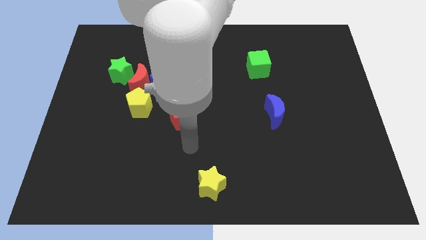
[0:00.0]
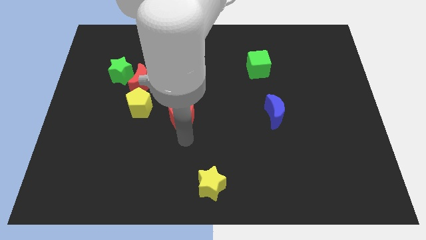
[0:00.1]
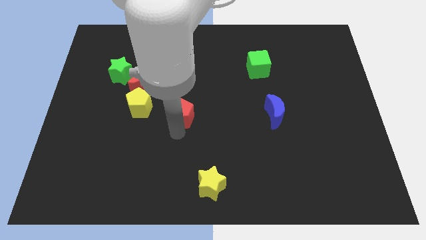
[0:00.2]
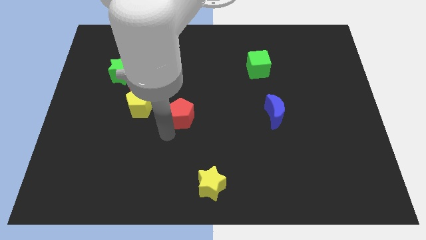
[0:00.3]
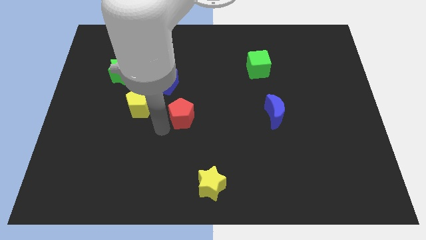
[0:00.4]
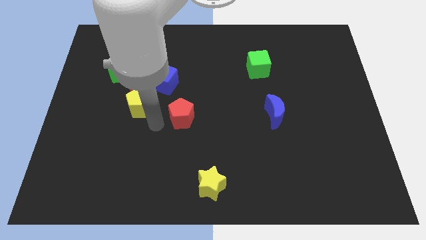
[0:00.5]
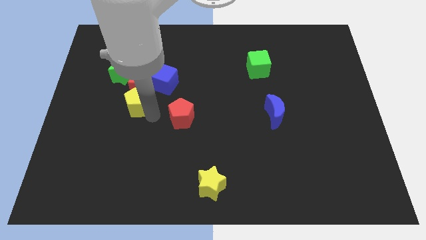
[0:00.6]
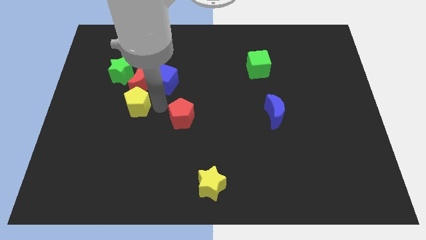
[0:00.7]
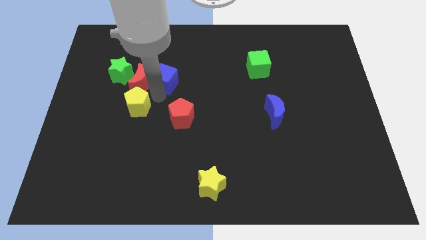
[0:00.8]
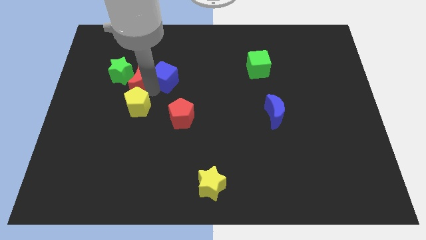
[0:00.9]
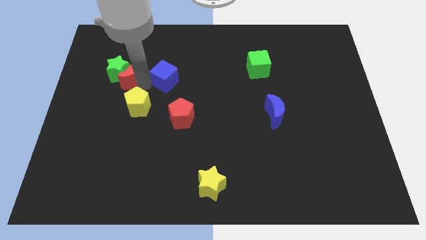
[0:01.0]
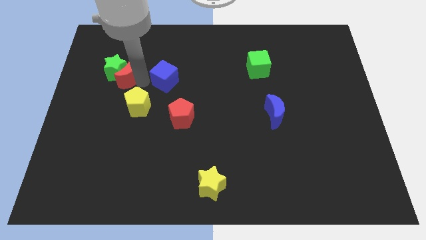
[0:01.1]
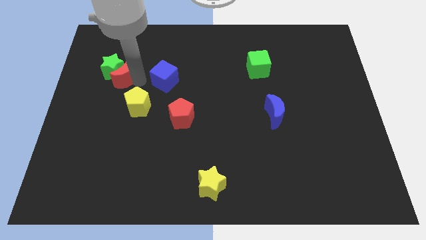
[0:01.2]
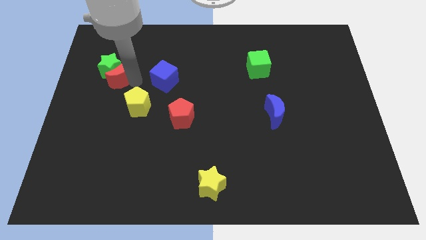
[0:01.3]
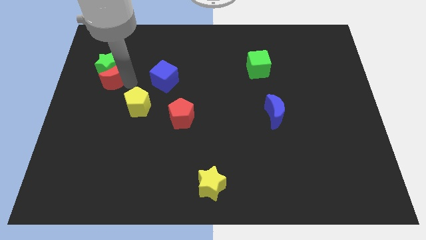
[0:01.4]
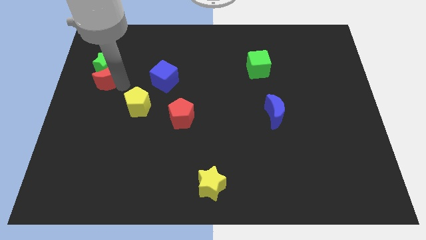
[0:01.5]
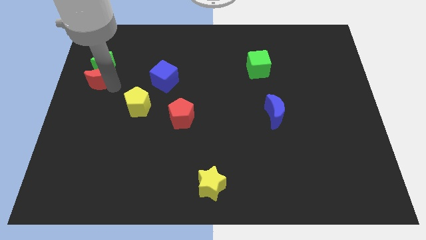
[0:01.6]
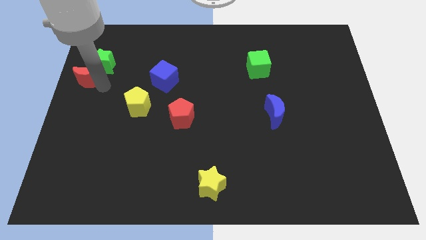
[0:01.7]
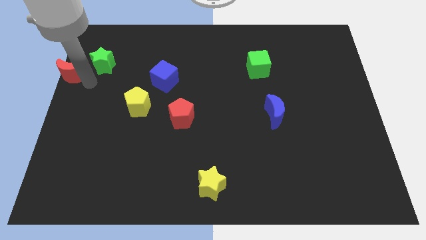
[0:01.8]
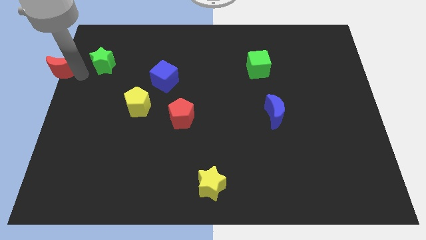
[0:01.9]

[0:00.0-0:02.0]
move the green star away from the red moon

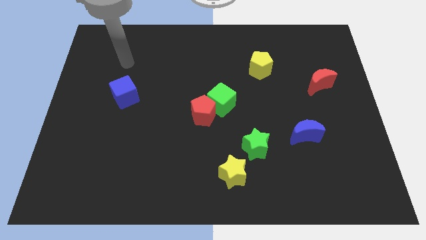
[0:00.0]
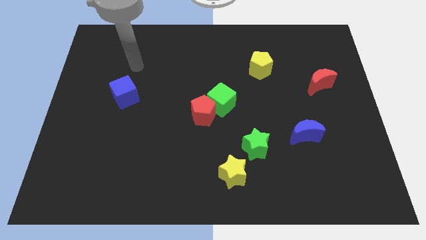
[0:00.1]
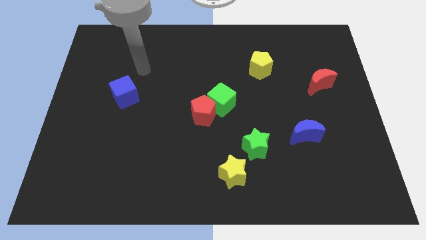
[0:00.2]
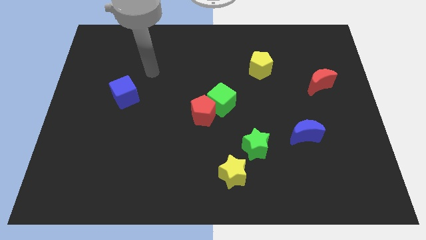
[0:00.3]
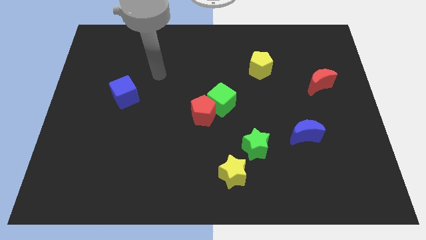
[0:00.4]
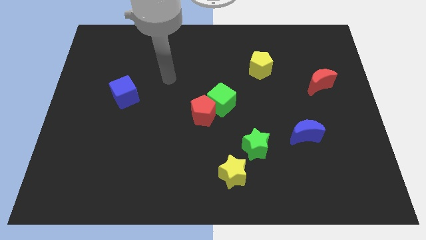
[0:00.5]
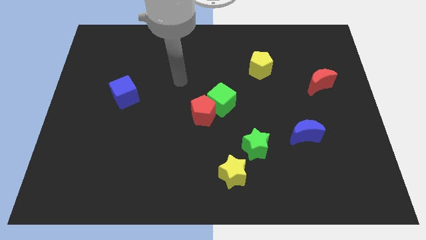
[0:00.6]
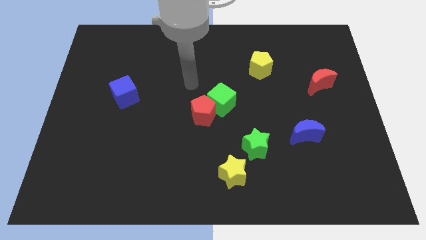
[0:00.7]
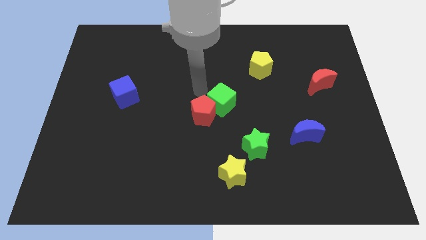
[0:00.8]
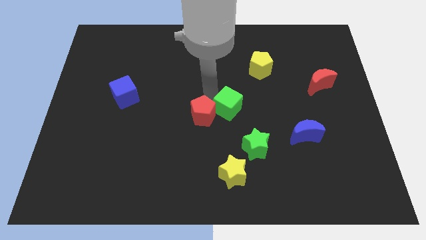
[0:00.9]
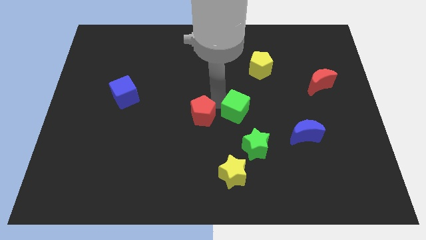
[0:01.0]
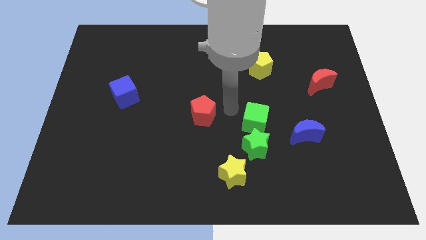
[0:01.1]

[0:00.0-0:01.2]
move the red pentagon away from the green cube

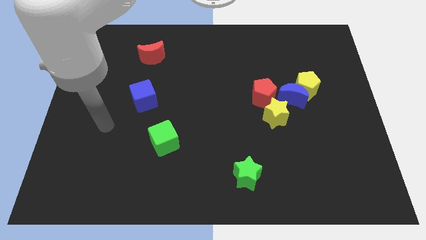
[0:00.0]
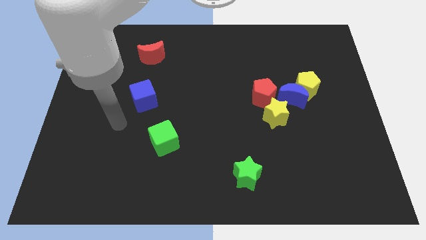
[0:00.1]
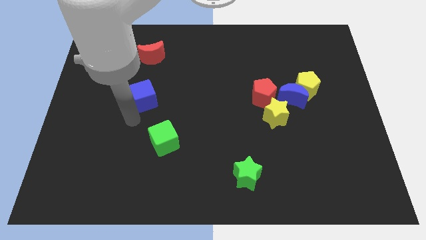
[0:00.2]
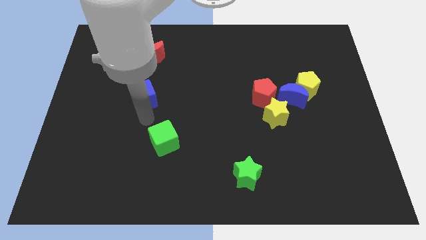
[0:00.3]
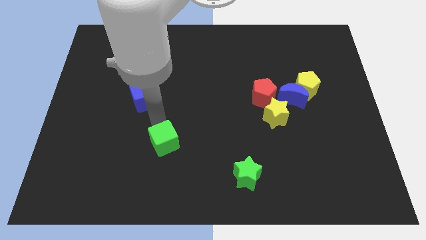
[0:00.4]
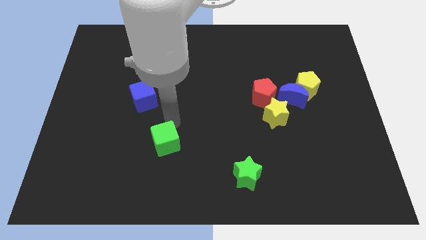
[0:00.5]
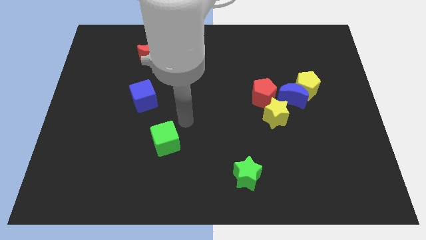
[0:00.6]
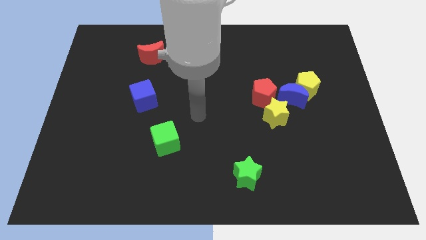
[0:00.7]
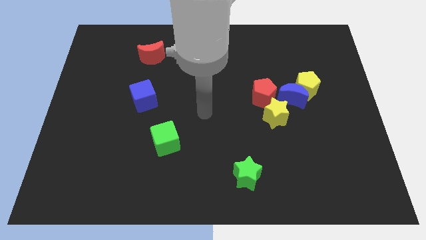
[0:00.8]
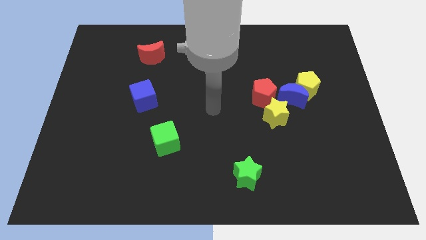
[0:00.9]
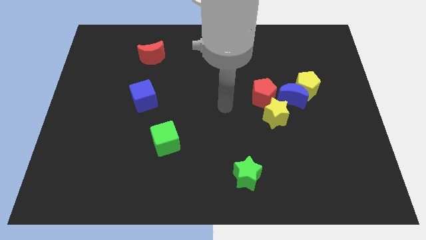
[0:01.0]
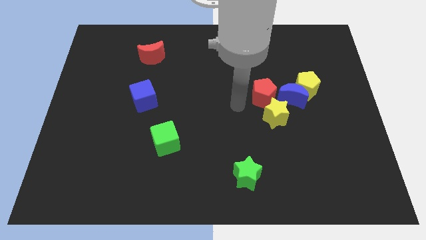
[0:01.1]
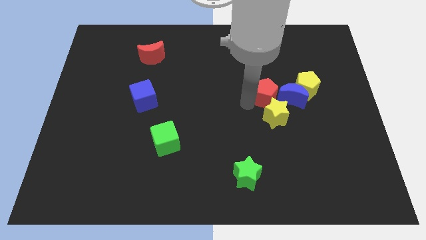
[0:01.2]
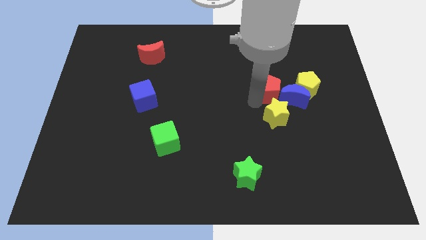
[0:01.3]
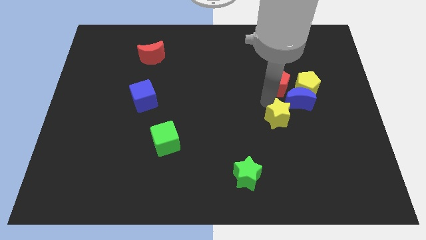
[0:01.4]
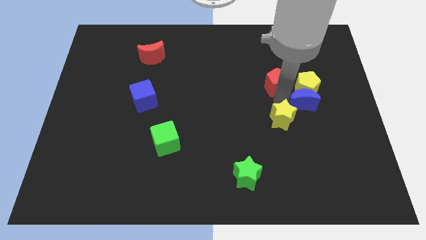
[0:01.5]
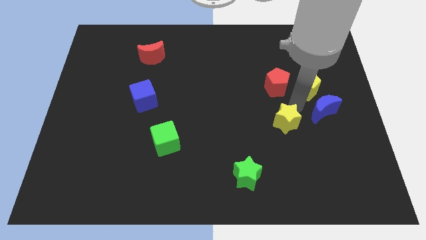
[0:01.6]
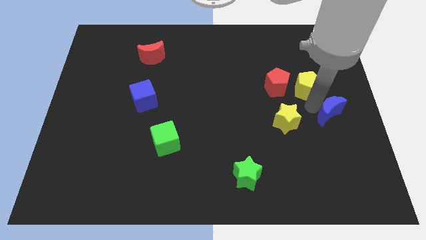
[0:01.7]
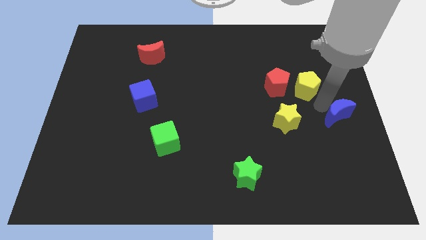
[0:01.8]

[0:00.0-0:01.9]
move the yellow pentagon away from the blue moon

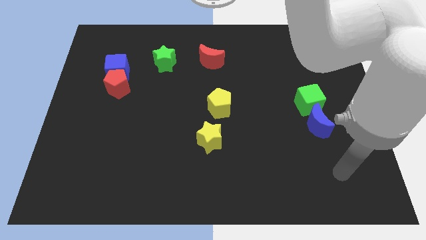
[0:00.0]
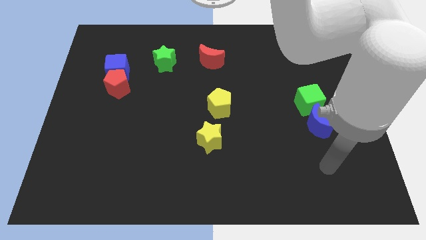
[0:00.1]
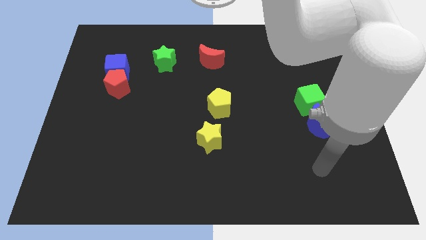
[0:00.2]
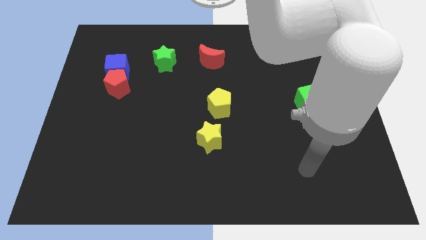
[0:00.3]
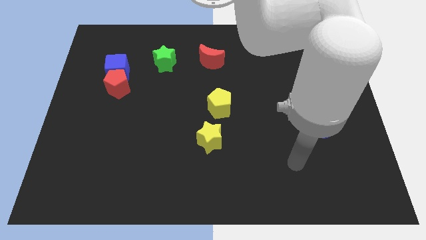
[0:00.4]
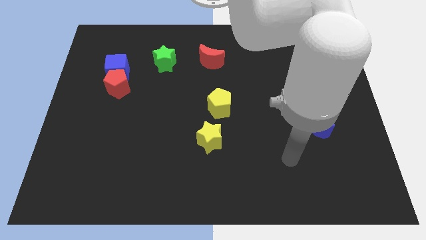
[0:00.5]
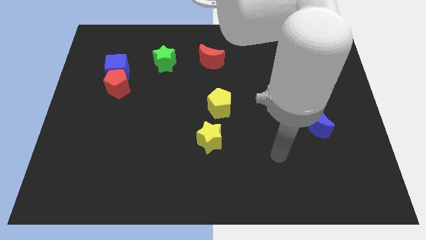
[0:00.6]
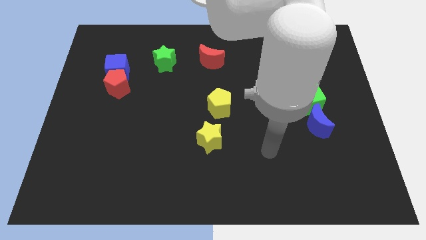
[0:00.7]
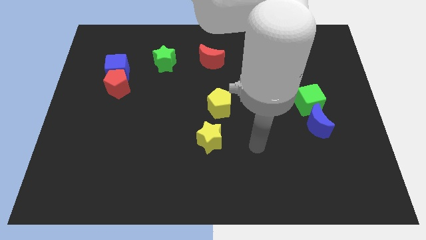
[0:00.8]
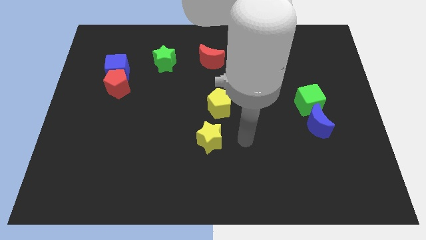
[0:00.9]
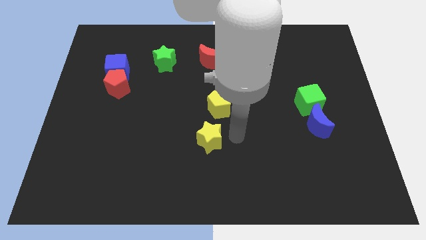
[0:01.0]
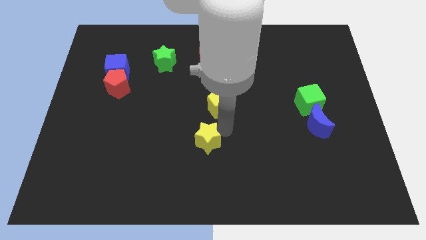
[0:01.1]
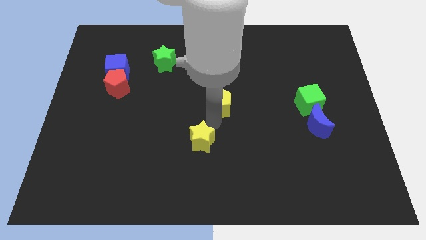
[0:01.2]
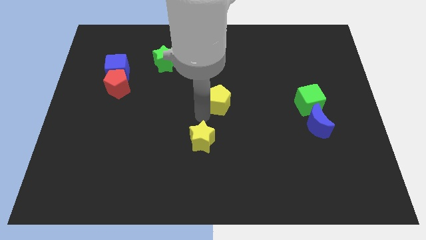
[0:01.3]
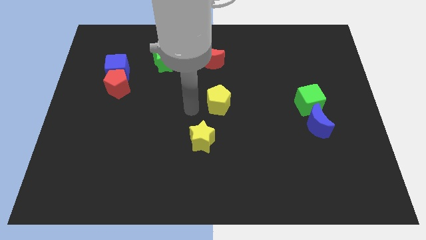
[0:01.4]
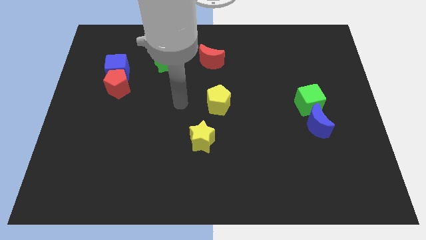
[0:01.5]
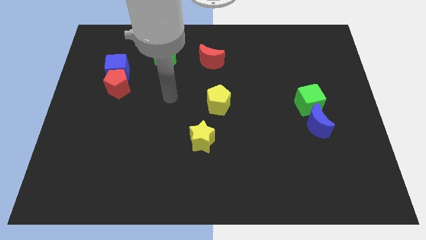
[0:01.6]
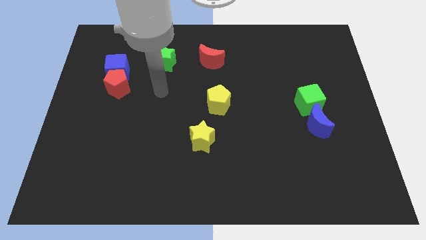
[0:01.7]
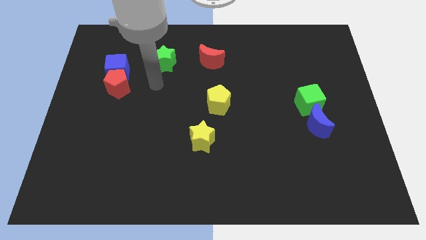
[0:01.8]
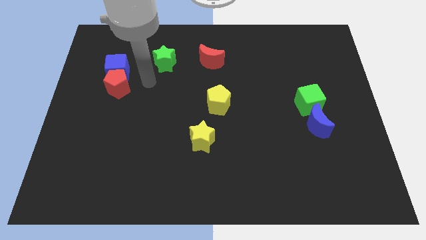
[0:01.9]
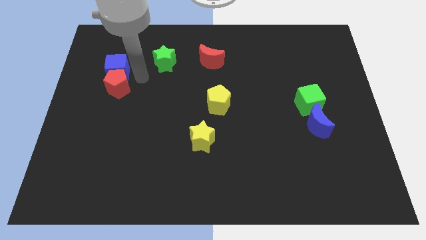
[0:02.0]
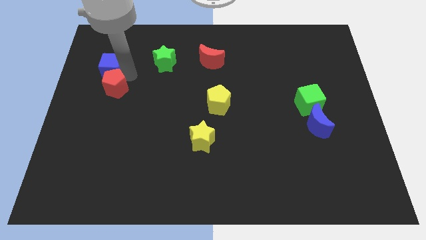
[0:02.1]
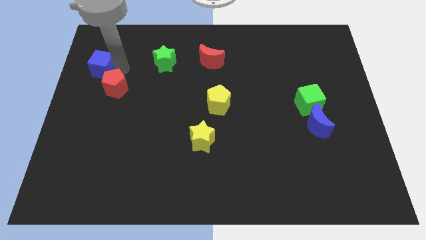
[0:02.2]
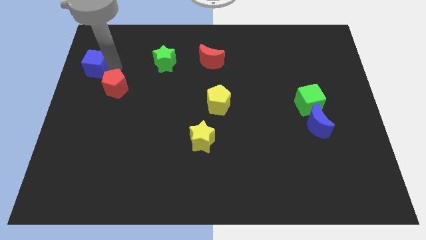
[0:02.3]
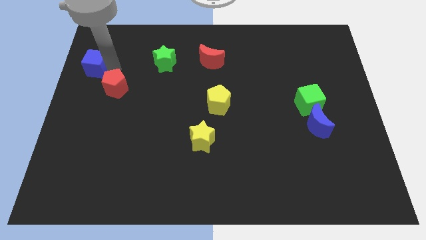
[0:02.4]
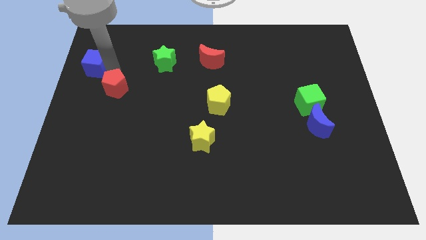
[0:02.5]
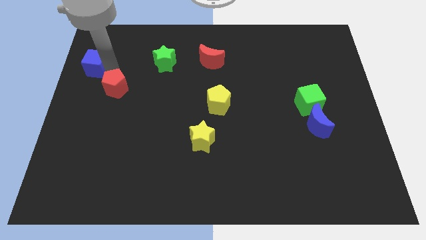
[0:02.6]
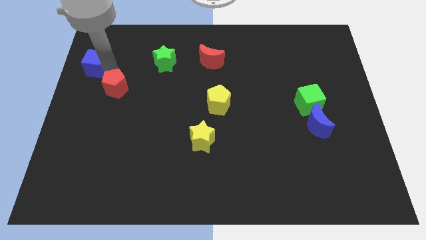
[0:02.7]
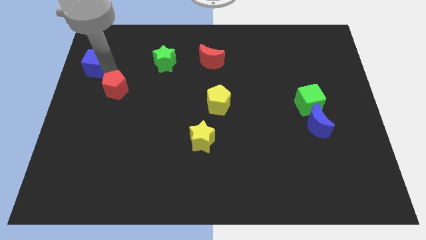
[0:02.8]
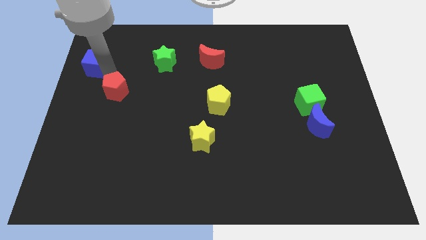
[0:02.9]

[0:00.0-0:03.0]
separate the red pentagon from the blue cube

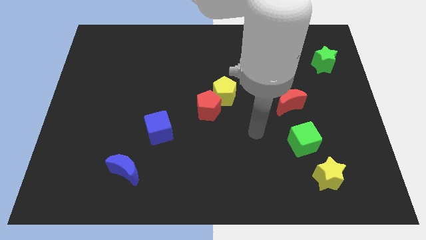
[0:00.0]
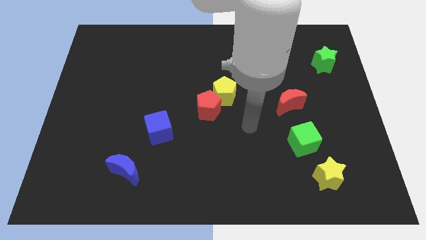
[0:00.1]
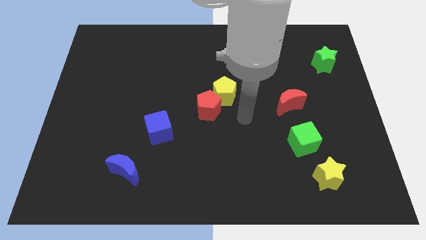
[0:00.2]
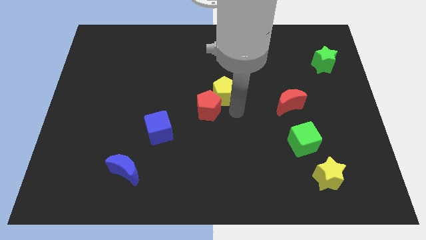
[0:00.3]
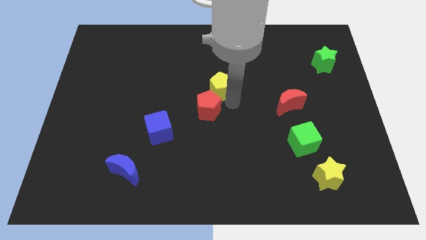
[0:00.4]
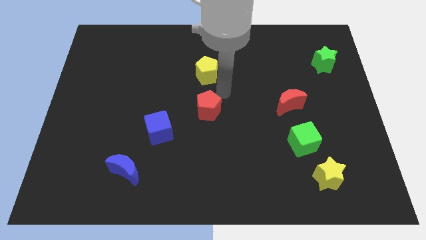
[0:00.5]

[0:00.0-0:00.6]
separate the red pentagon from the yellow pentagon

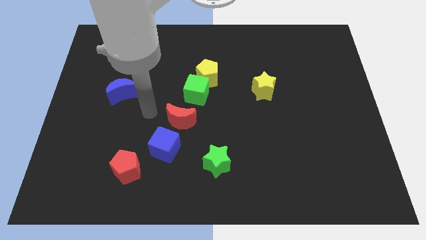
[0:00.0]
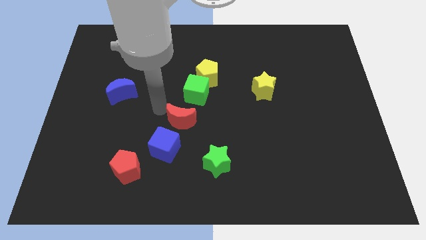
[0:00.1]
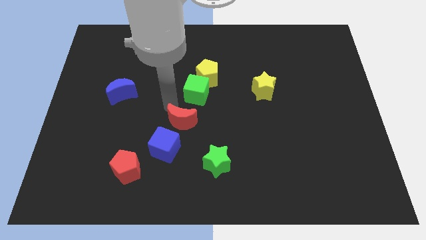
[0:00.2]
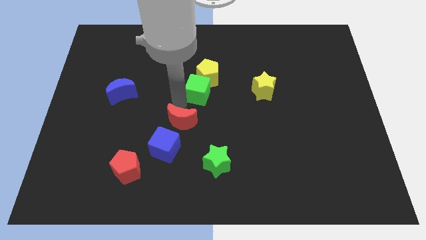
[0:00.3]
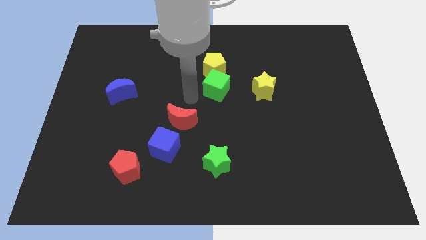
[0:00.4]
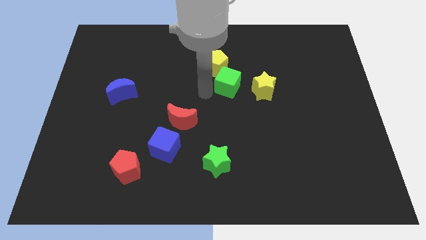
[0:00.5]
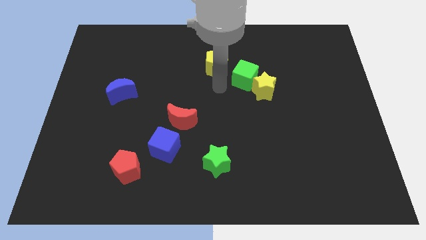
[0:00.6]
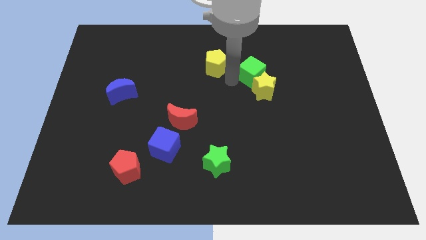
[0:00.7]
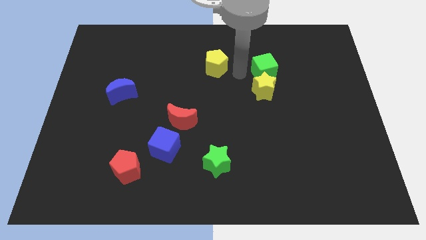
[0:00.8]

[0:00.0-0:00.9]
pull the yellow pentagon apart from the green cube
